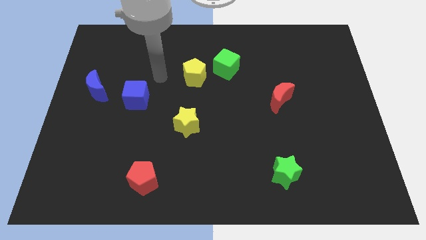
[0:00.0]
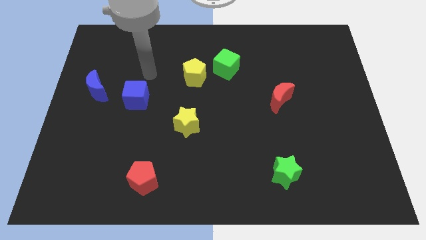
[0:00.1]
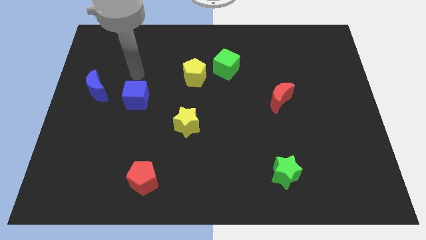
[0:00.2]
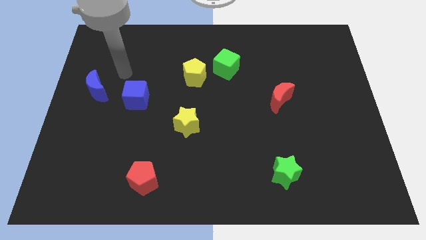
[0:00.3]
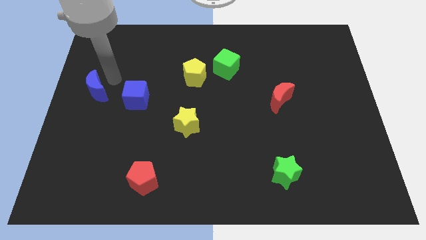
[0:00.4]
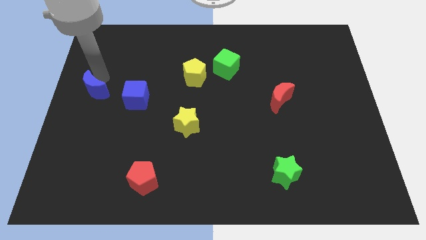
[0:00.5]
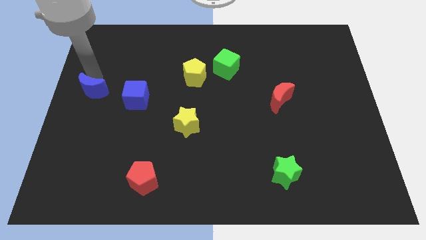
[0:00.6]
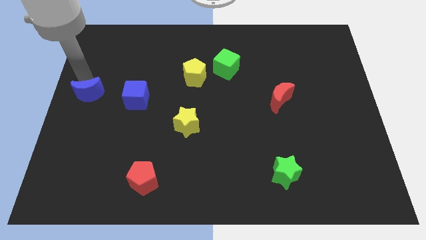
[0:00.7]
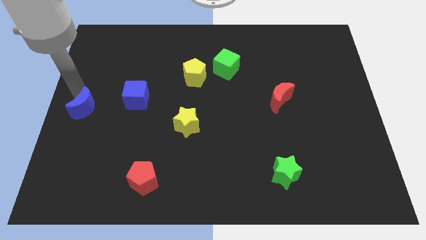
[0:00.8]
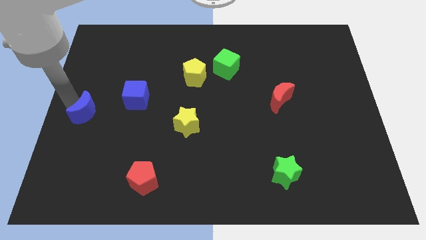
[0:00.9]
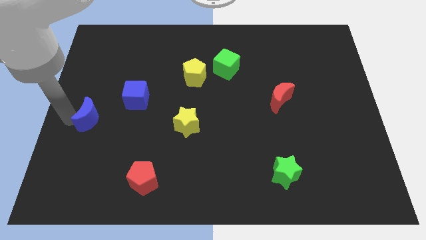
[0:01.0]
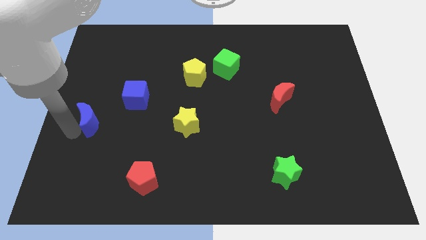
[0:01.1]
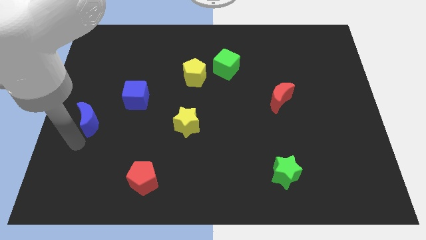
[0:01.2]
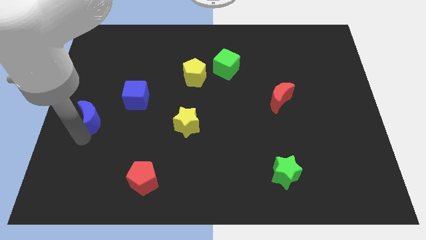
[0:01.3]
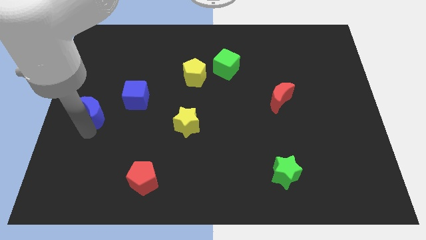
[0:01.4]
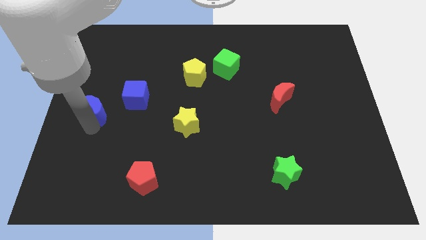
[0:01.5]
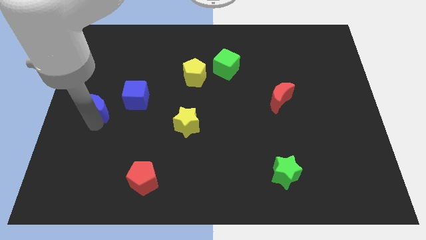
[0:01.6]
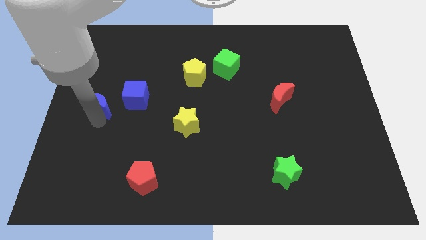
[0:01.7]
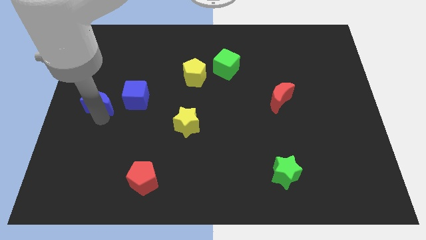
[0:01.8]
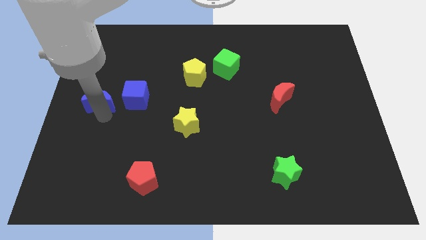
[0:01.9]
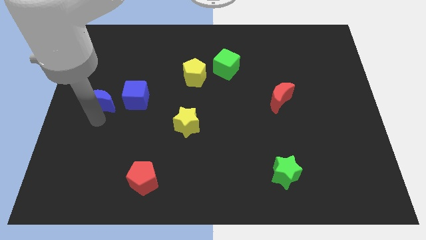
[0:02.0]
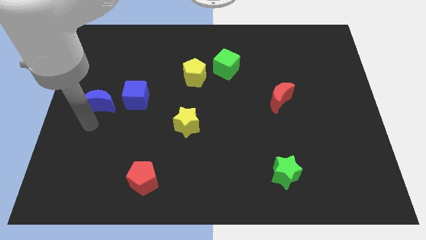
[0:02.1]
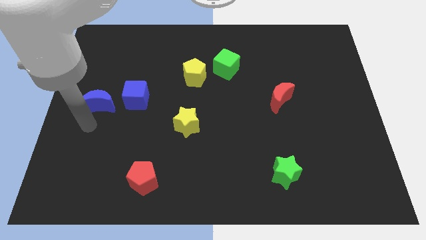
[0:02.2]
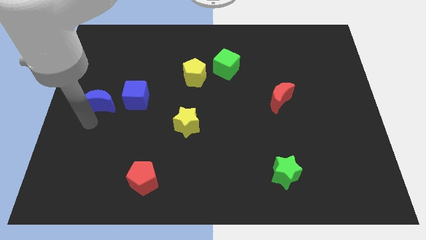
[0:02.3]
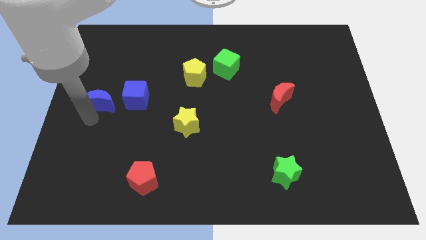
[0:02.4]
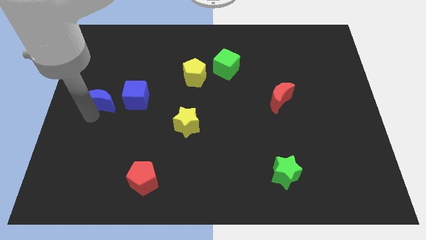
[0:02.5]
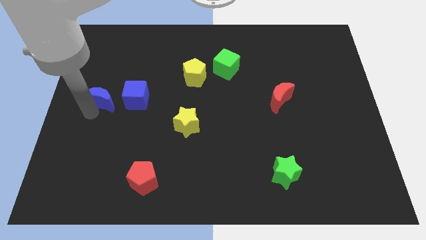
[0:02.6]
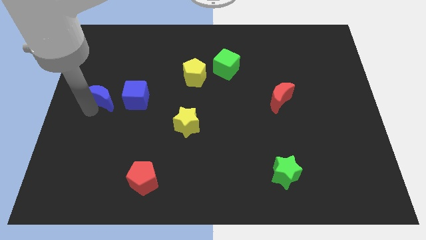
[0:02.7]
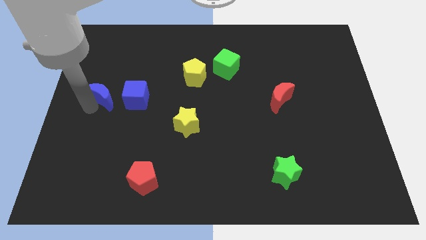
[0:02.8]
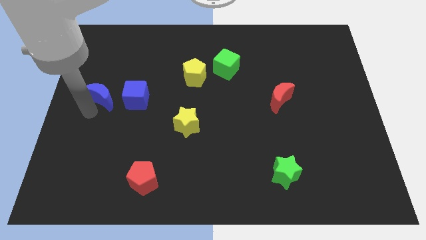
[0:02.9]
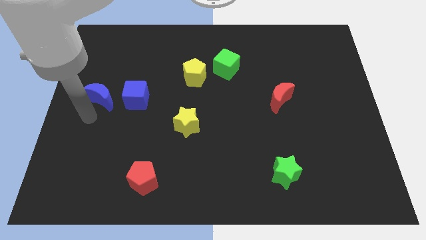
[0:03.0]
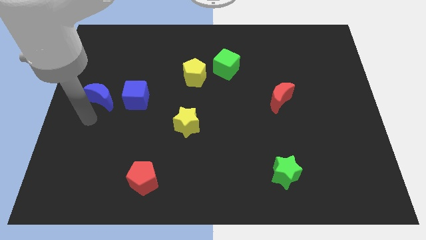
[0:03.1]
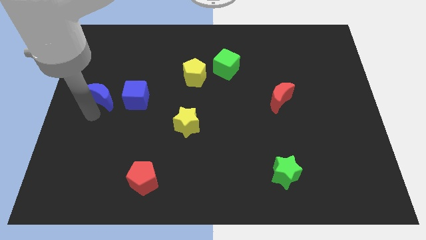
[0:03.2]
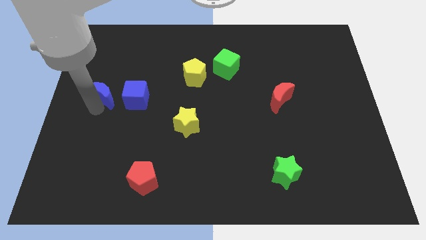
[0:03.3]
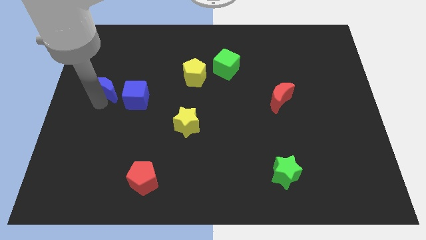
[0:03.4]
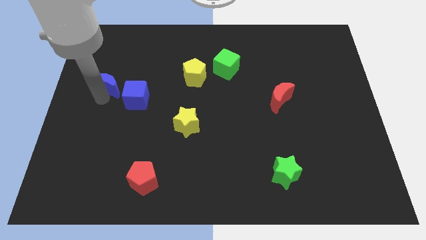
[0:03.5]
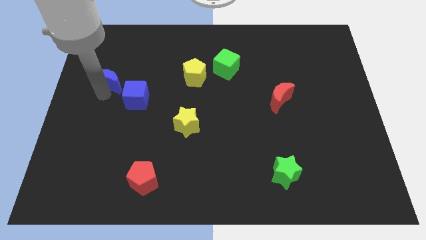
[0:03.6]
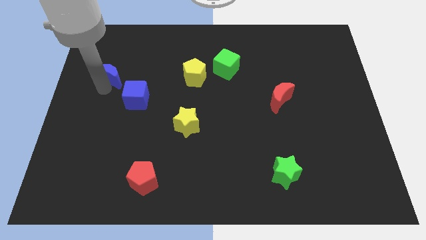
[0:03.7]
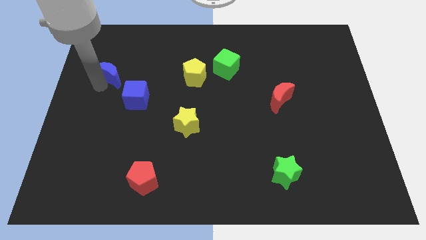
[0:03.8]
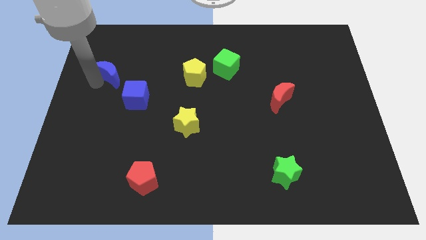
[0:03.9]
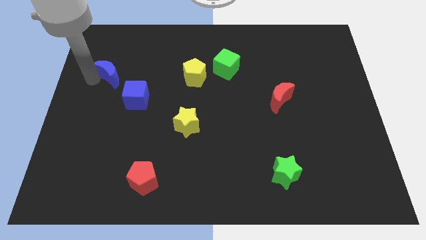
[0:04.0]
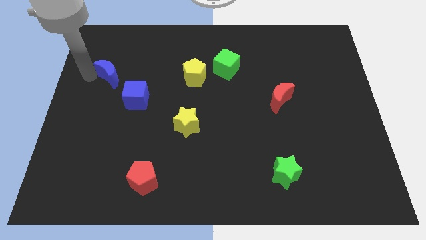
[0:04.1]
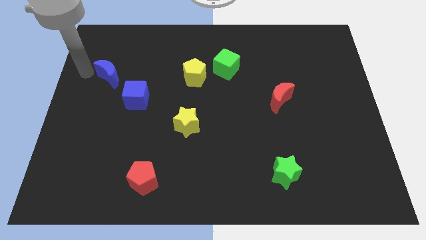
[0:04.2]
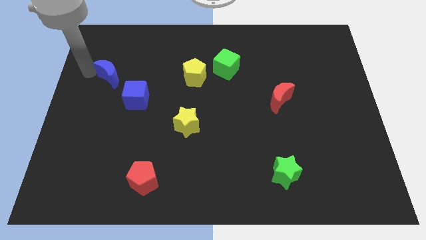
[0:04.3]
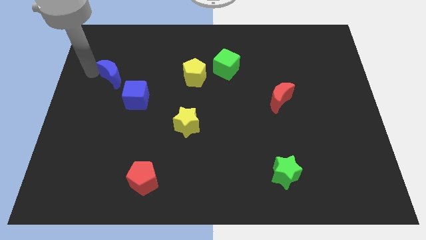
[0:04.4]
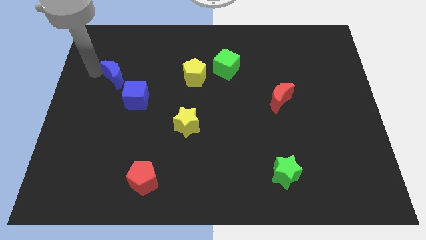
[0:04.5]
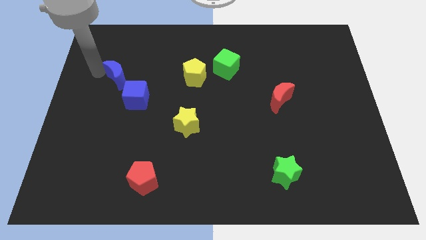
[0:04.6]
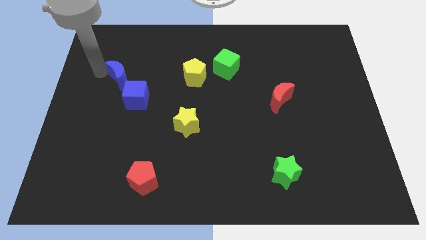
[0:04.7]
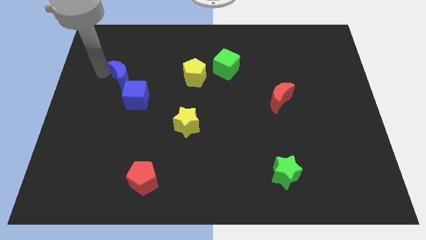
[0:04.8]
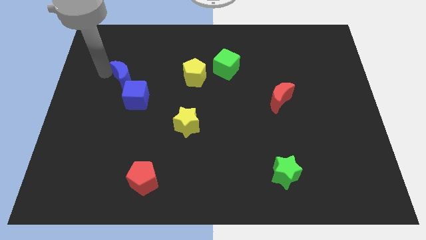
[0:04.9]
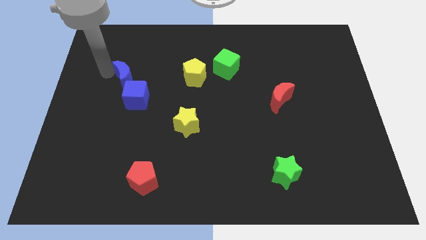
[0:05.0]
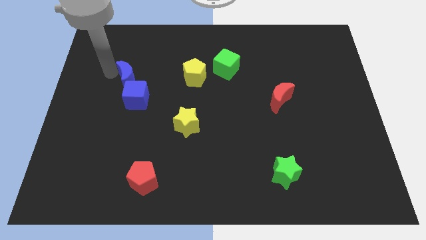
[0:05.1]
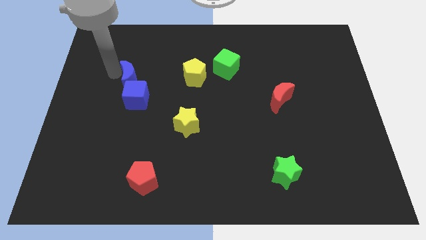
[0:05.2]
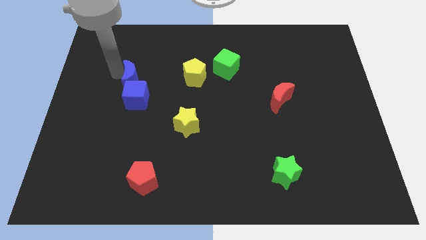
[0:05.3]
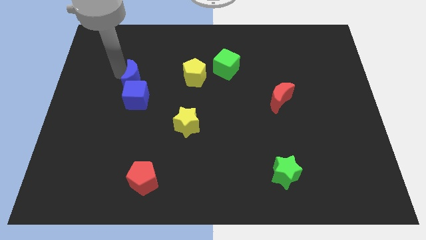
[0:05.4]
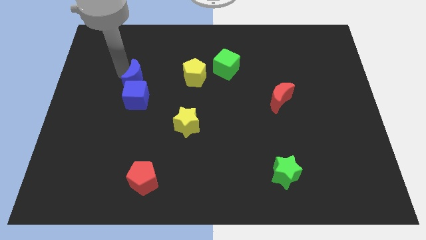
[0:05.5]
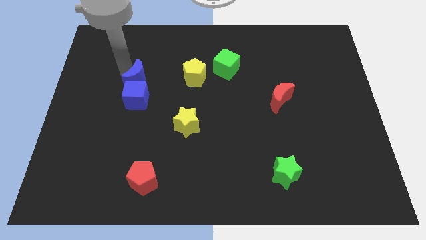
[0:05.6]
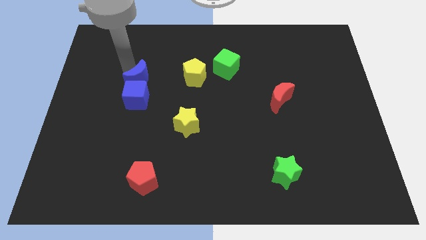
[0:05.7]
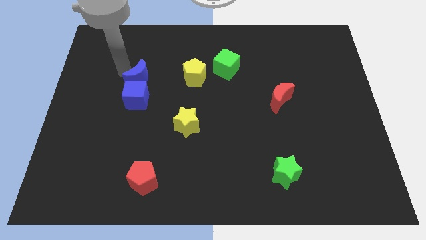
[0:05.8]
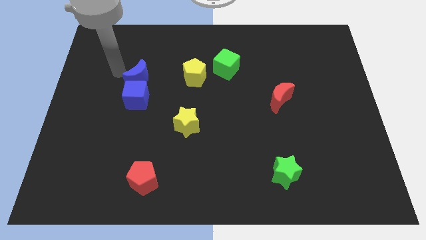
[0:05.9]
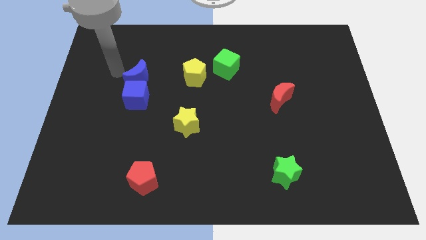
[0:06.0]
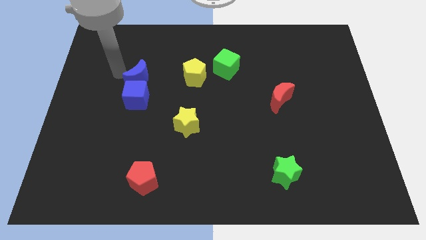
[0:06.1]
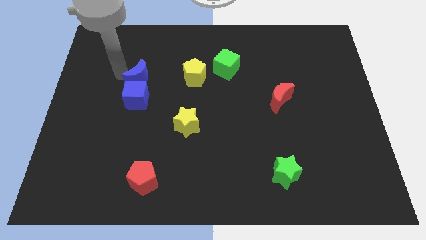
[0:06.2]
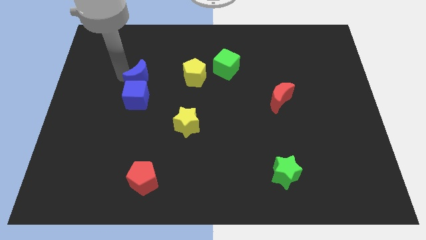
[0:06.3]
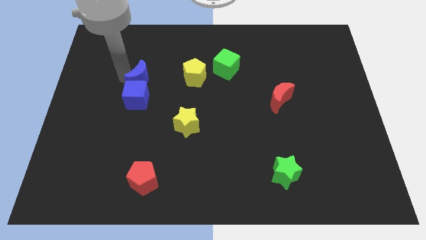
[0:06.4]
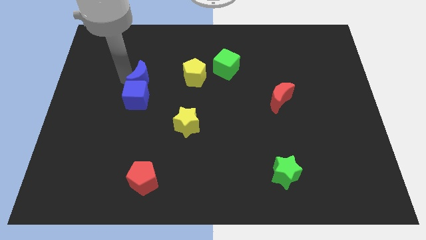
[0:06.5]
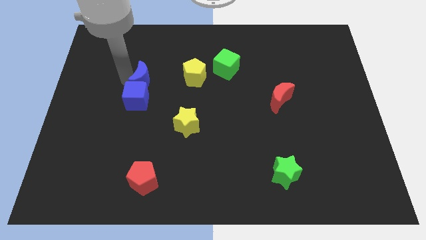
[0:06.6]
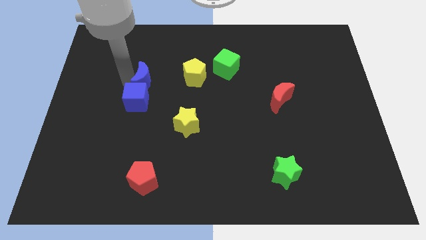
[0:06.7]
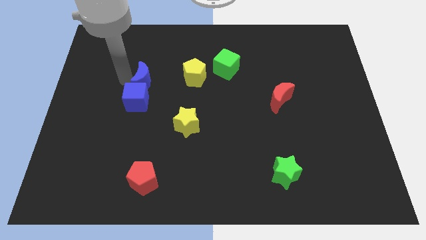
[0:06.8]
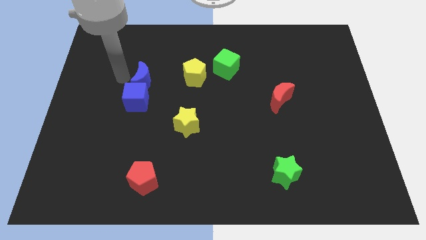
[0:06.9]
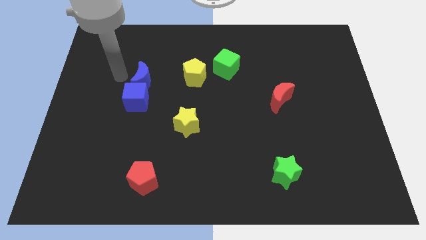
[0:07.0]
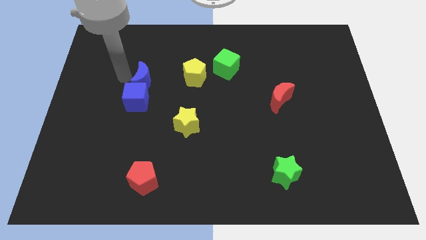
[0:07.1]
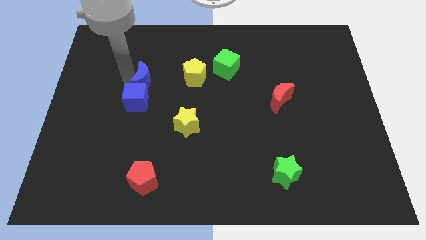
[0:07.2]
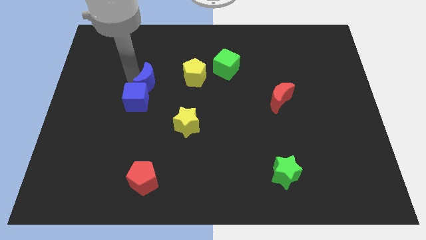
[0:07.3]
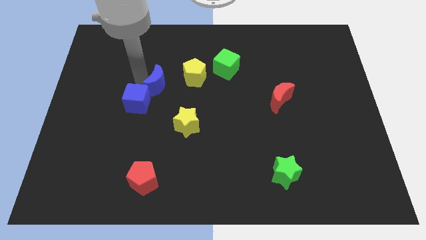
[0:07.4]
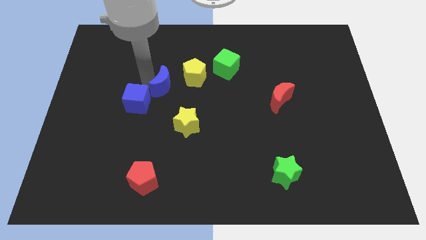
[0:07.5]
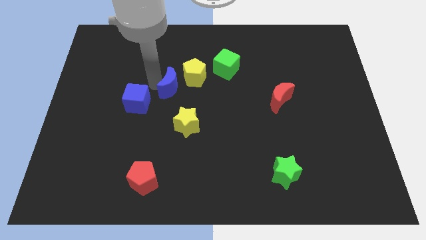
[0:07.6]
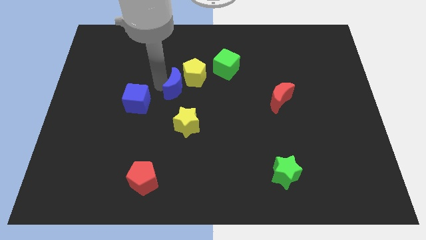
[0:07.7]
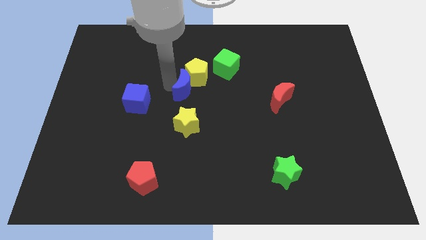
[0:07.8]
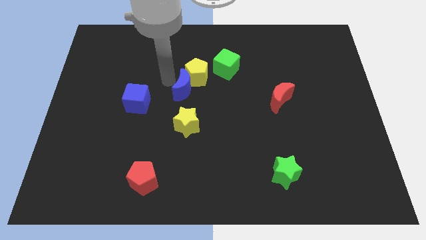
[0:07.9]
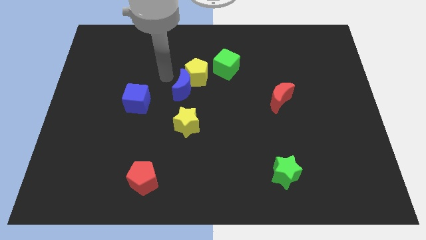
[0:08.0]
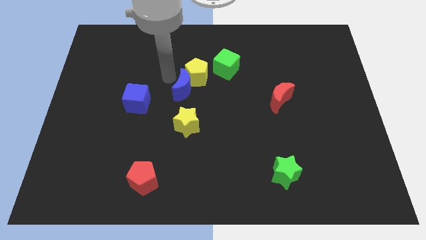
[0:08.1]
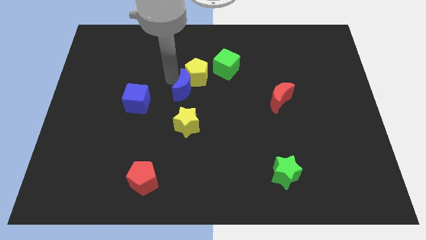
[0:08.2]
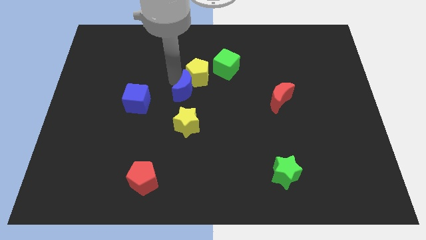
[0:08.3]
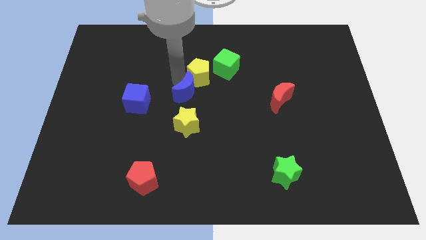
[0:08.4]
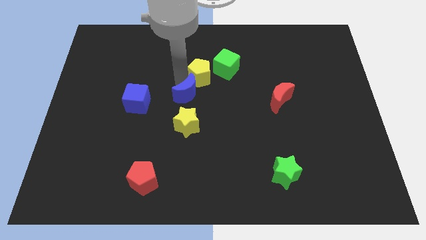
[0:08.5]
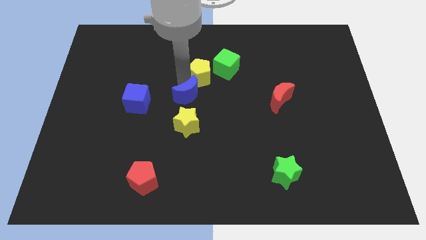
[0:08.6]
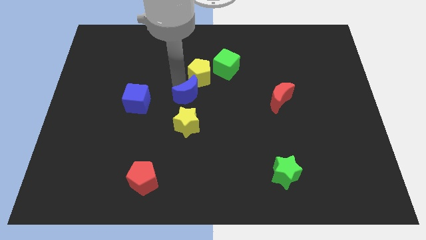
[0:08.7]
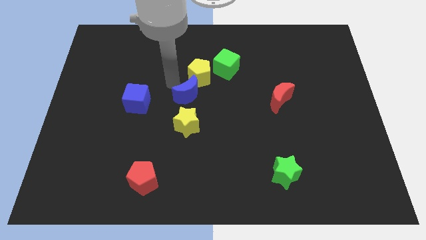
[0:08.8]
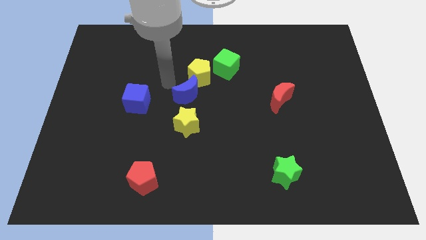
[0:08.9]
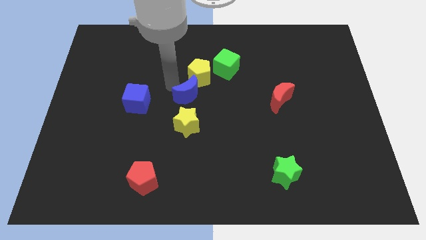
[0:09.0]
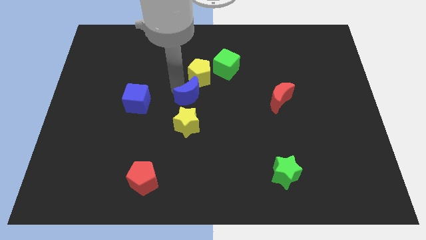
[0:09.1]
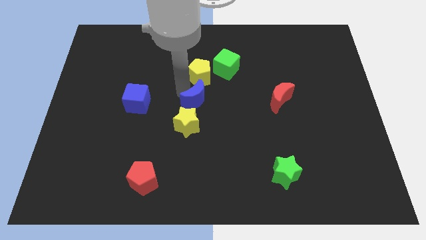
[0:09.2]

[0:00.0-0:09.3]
push the blue moon diagonally up and to the right of the yellow star
